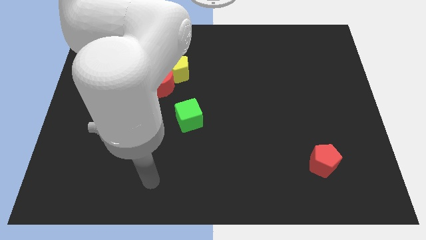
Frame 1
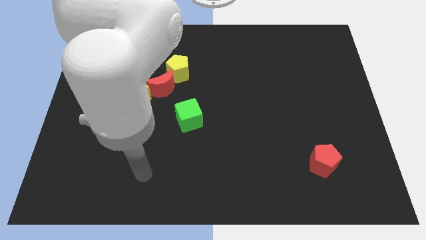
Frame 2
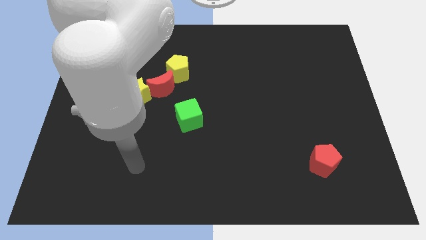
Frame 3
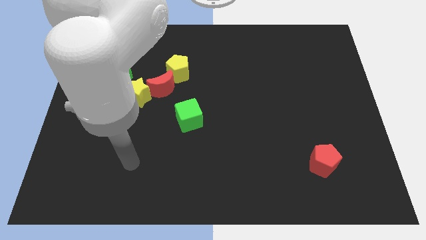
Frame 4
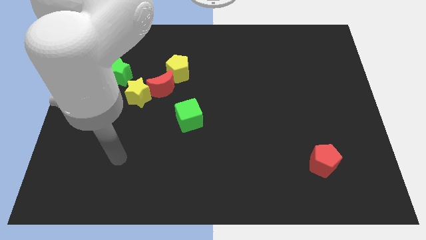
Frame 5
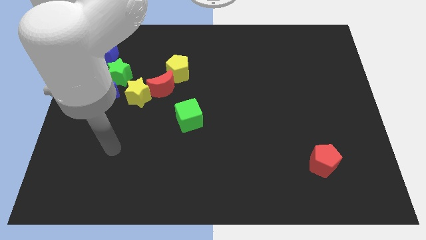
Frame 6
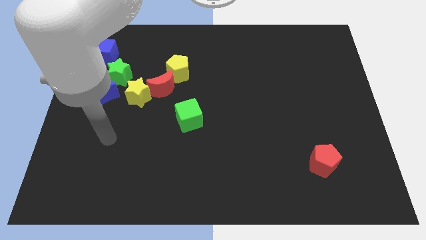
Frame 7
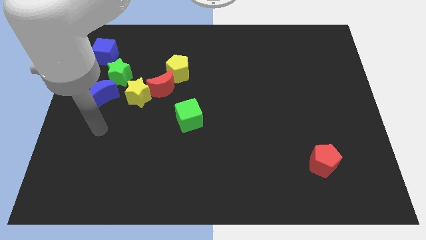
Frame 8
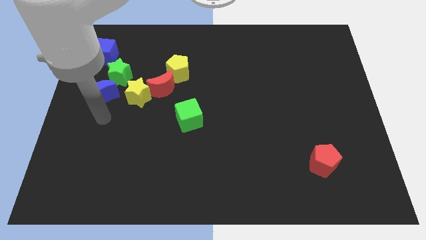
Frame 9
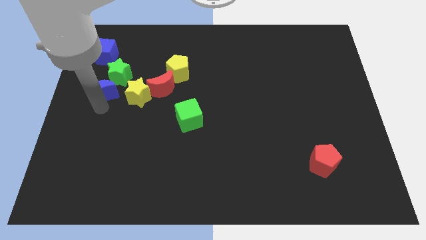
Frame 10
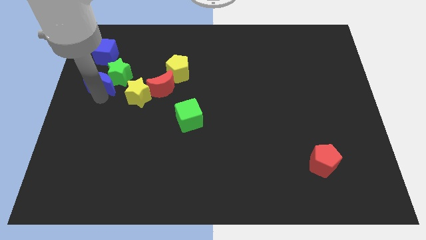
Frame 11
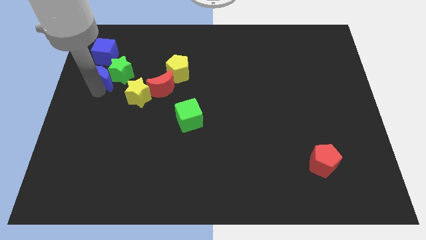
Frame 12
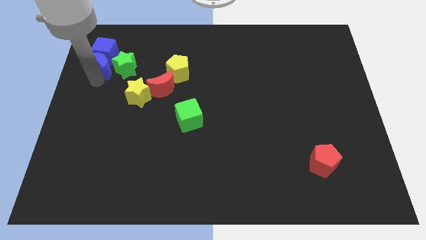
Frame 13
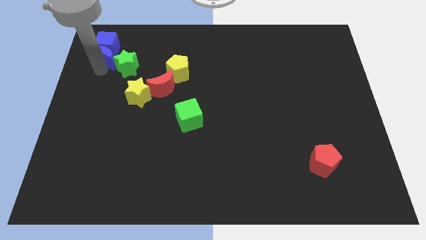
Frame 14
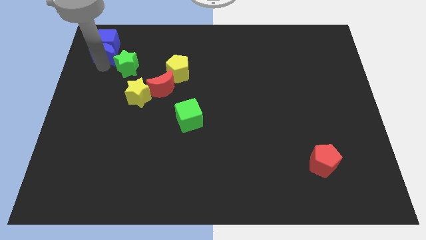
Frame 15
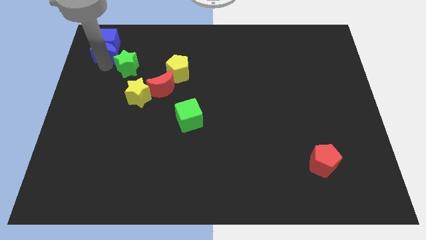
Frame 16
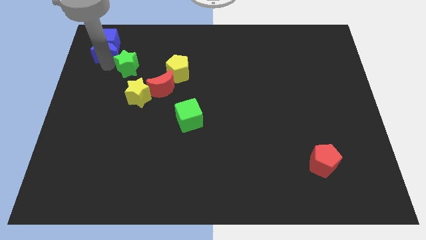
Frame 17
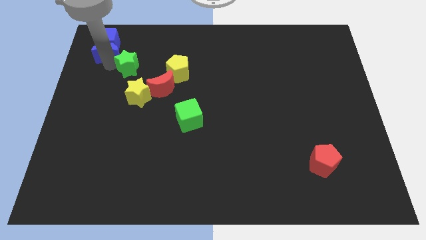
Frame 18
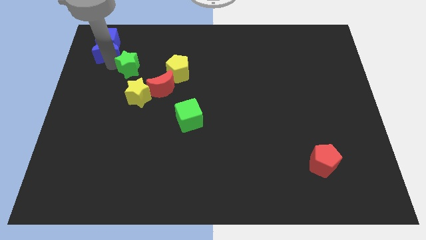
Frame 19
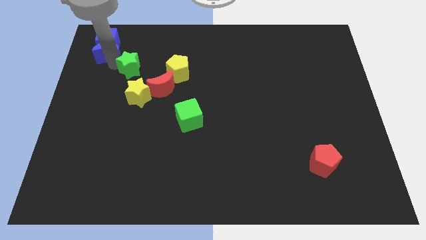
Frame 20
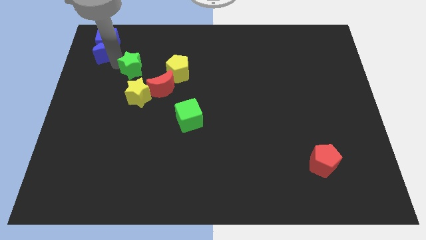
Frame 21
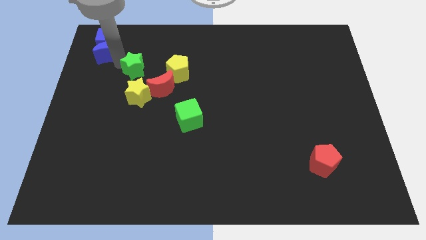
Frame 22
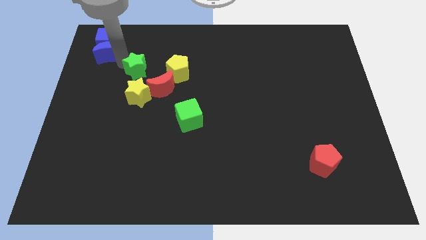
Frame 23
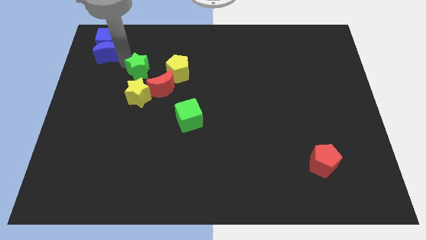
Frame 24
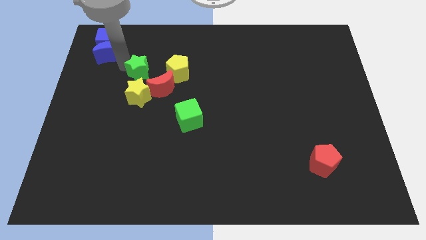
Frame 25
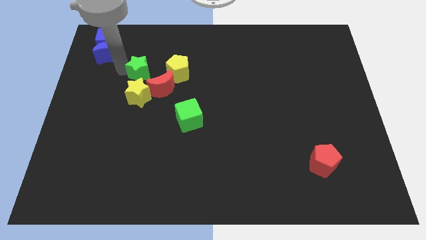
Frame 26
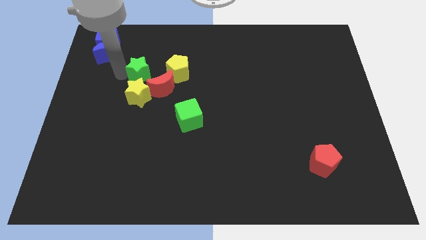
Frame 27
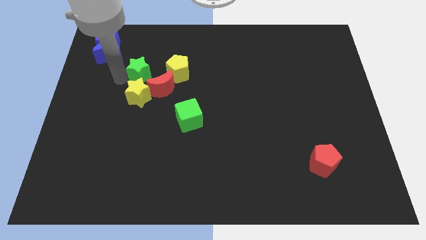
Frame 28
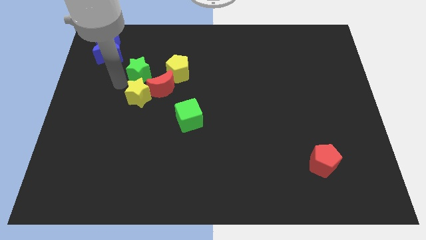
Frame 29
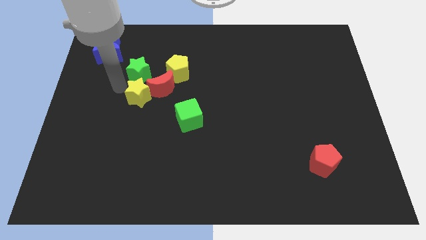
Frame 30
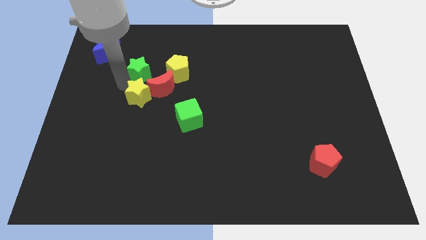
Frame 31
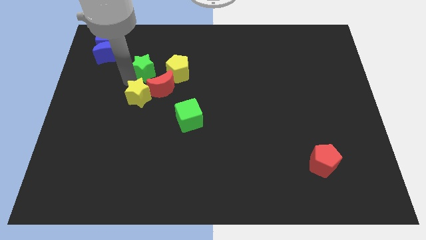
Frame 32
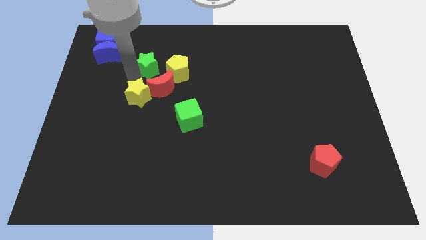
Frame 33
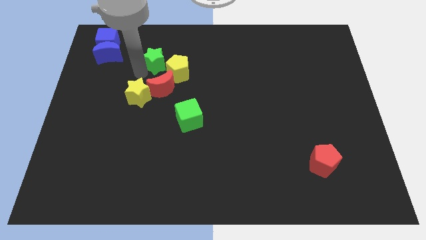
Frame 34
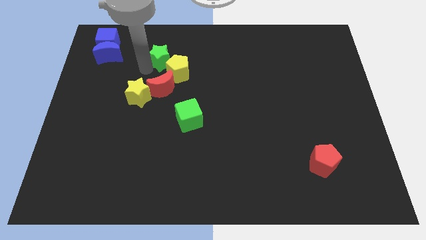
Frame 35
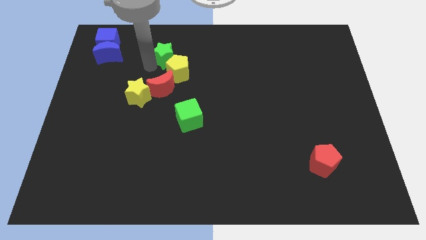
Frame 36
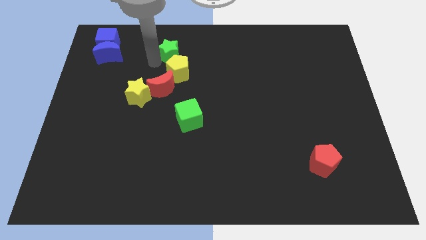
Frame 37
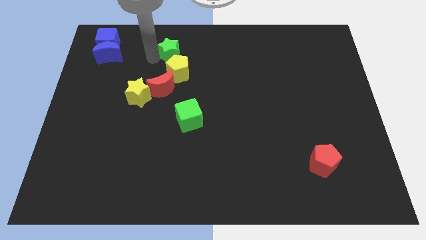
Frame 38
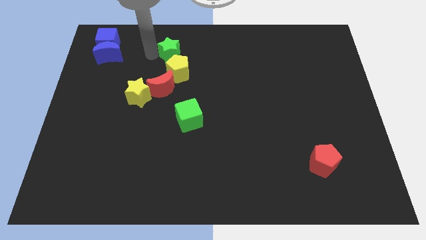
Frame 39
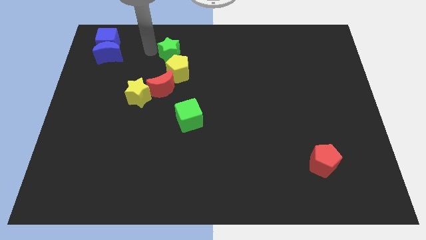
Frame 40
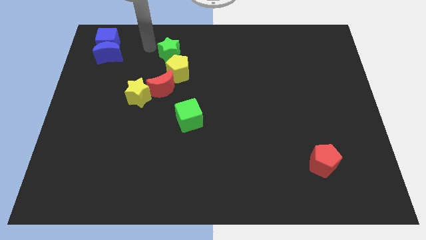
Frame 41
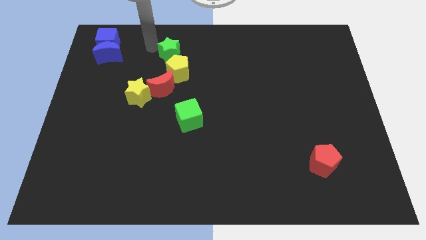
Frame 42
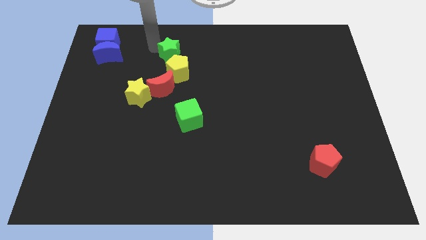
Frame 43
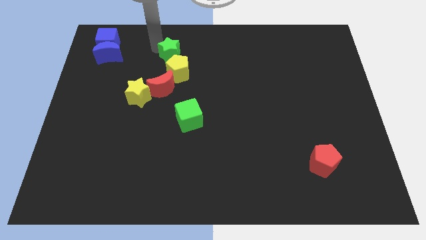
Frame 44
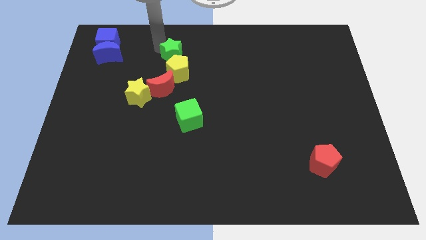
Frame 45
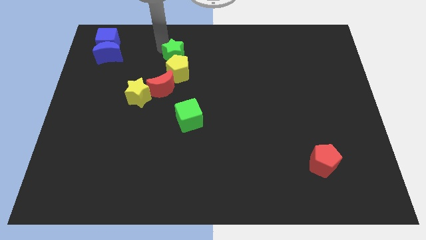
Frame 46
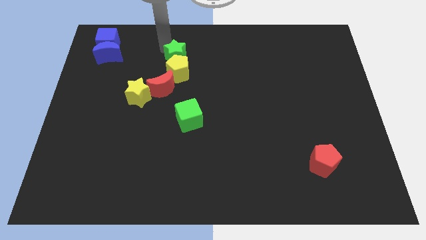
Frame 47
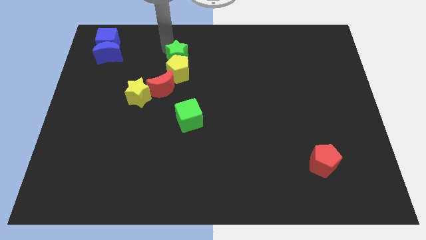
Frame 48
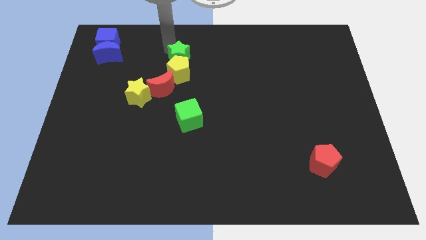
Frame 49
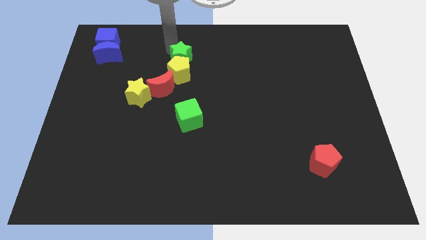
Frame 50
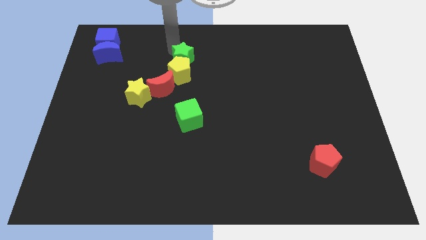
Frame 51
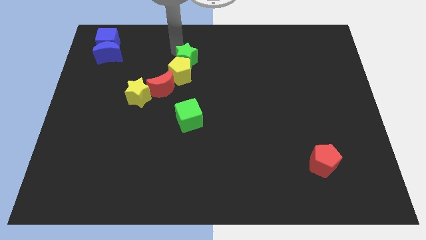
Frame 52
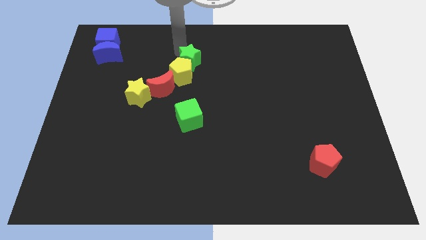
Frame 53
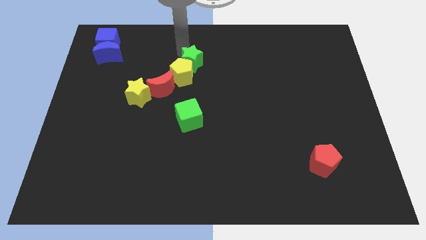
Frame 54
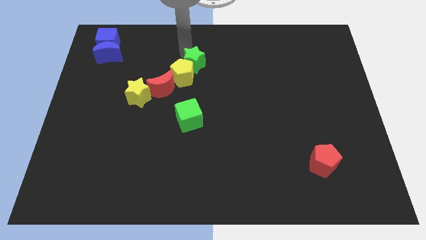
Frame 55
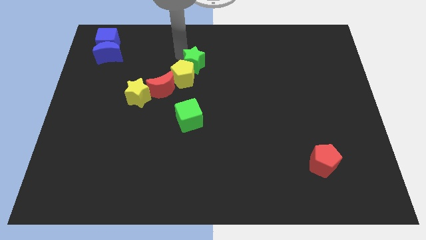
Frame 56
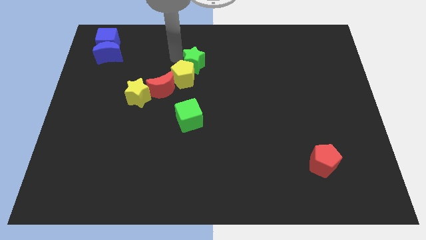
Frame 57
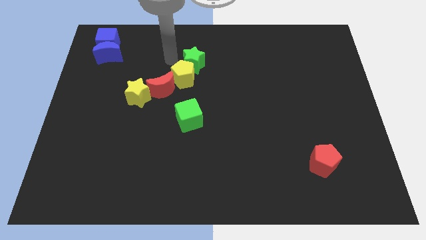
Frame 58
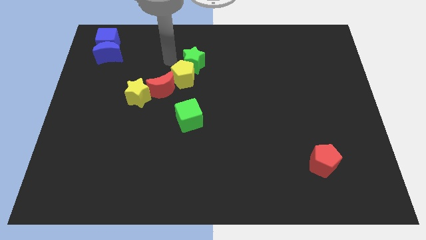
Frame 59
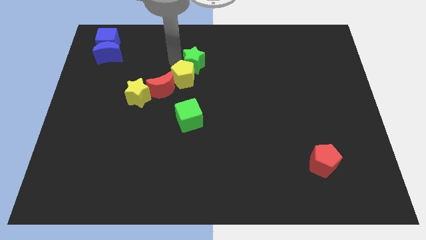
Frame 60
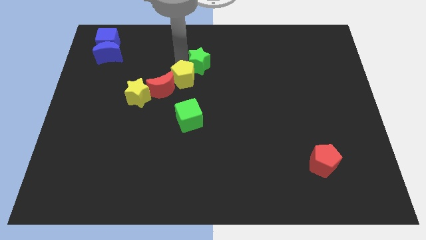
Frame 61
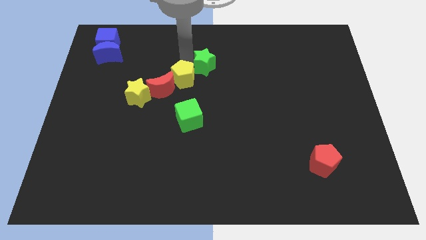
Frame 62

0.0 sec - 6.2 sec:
slide the green star to the right

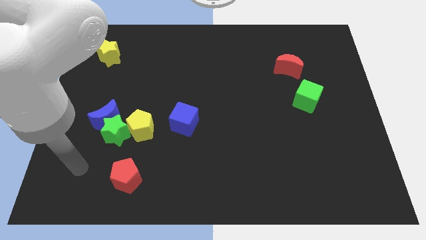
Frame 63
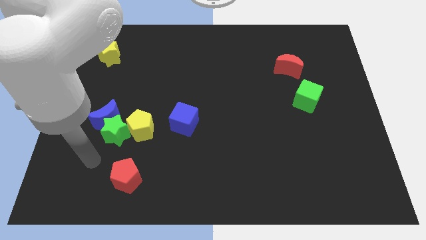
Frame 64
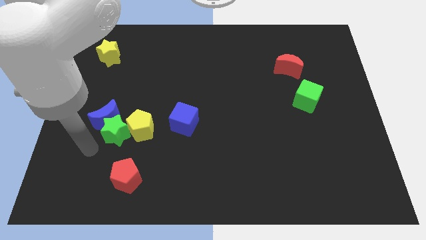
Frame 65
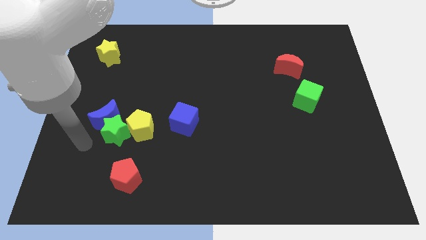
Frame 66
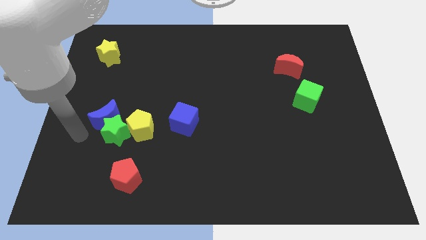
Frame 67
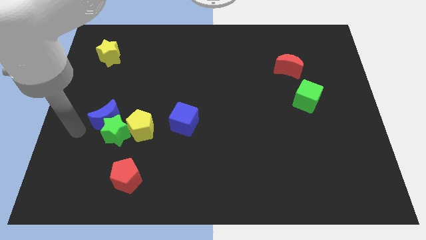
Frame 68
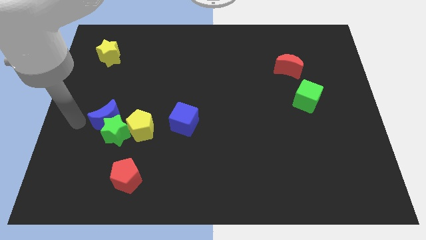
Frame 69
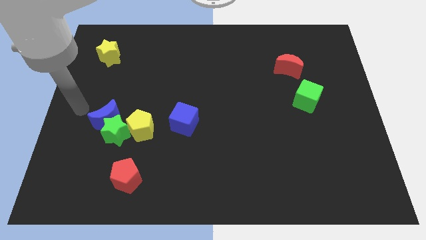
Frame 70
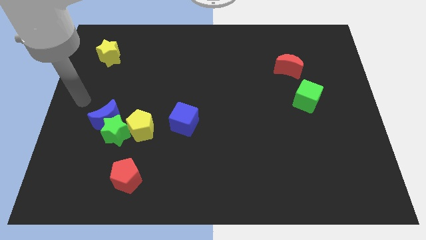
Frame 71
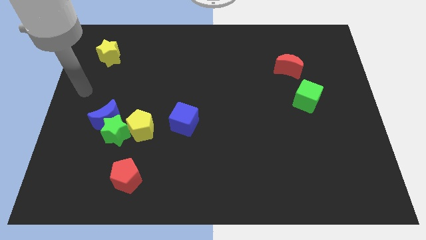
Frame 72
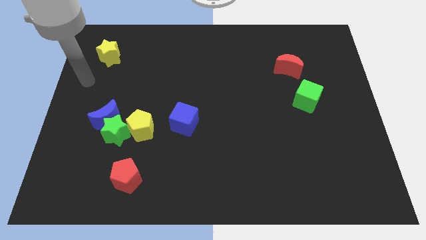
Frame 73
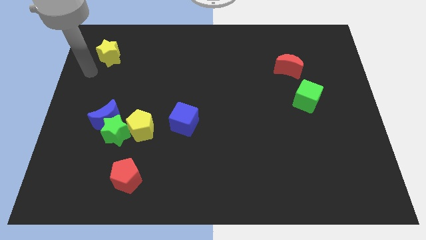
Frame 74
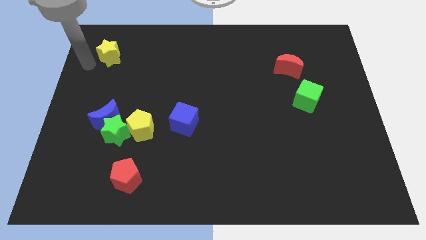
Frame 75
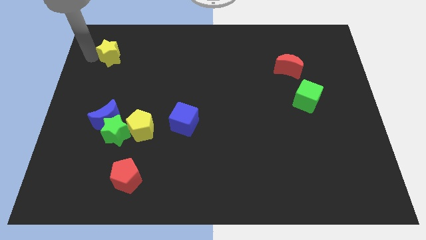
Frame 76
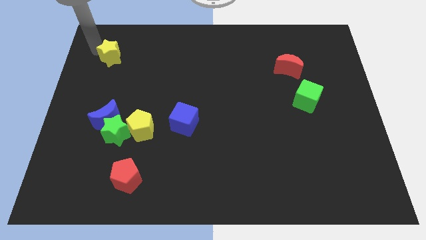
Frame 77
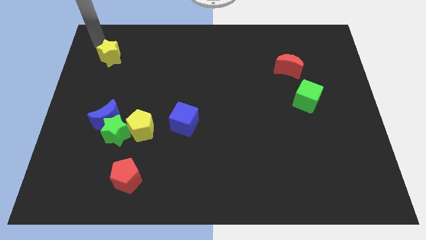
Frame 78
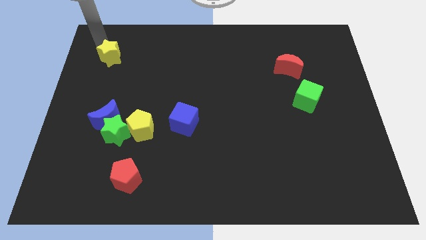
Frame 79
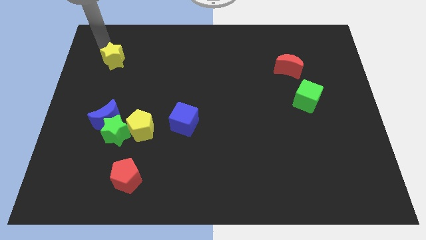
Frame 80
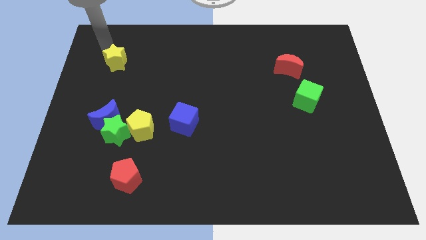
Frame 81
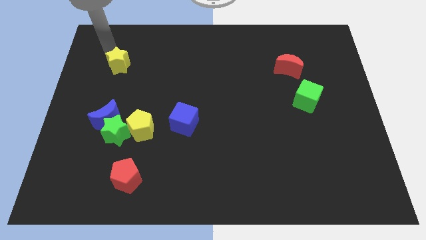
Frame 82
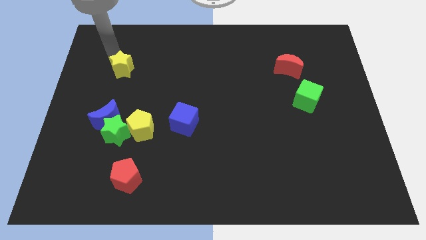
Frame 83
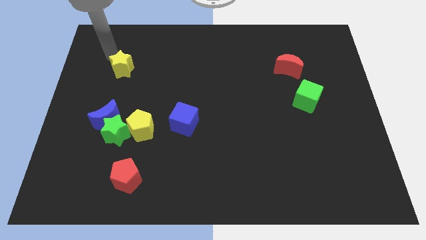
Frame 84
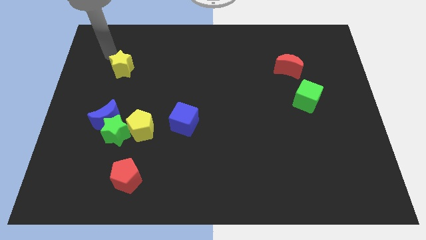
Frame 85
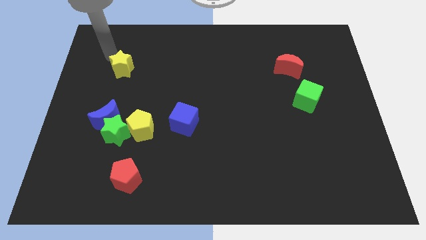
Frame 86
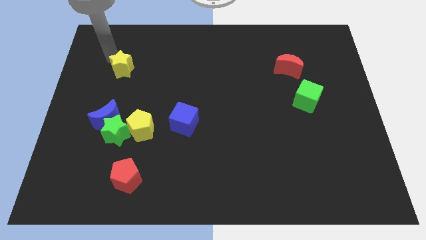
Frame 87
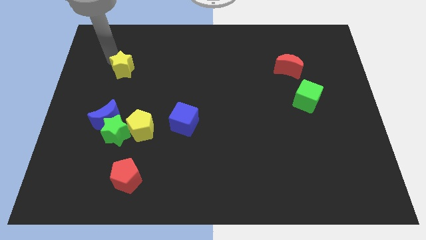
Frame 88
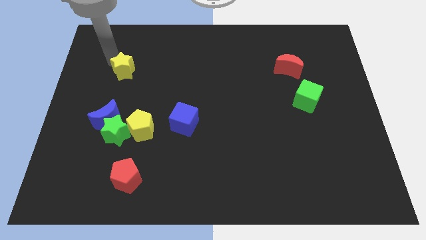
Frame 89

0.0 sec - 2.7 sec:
slightly move the yellow star down and to the right diagonally
